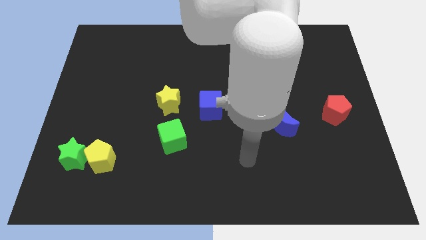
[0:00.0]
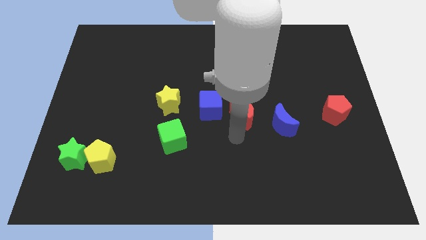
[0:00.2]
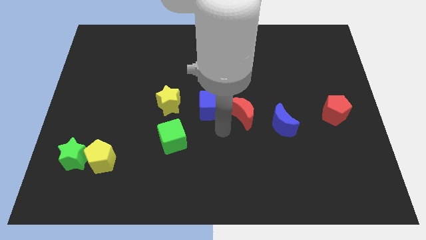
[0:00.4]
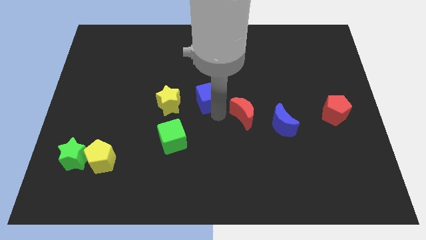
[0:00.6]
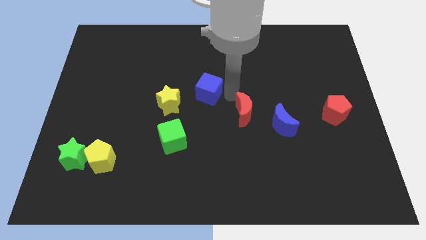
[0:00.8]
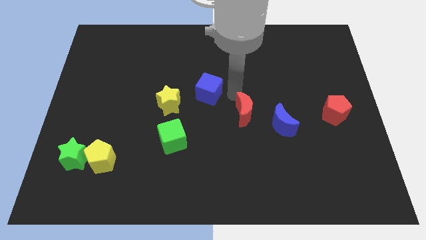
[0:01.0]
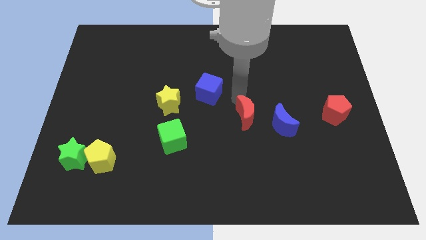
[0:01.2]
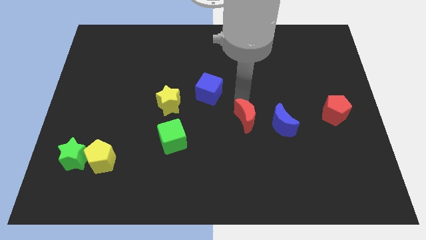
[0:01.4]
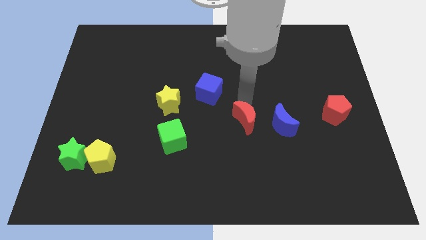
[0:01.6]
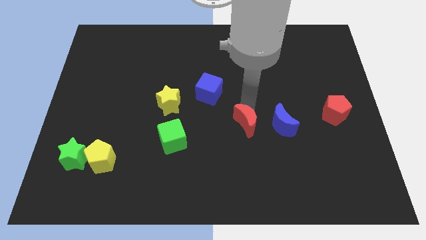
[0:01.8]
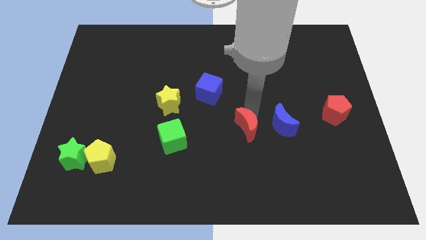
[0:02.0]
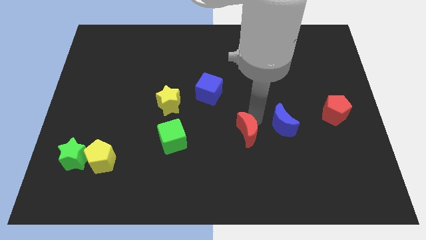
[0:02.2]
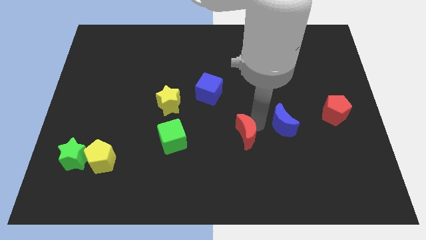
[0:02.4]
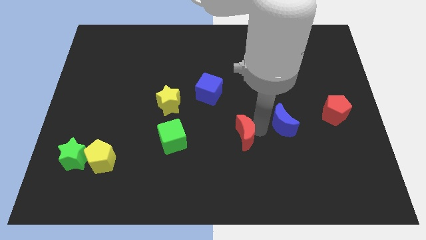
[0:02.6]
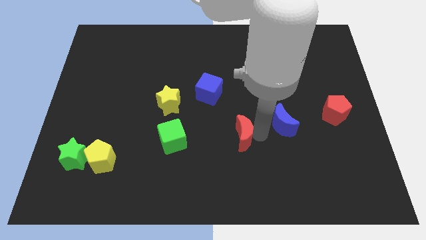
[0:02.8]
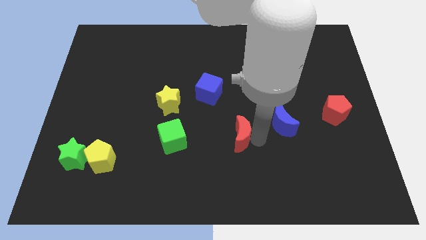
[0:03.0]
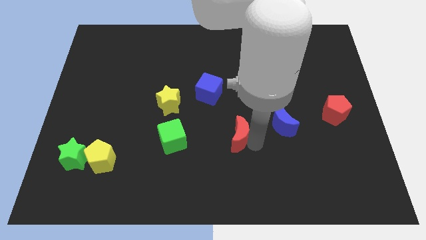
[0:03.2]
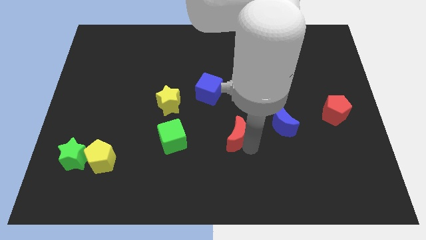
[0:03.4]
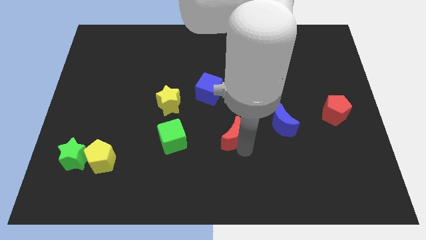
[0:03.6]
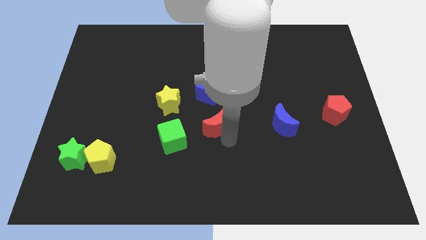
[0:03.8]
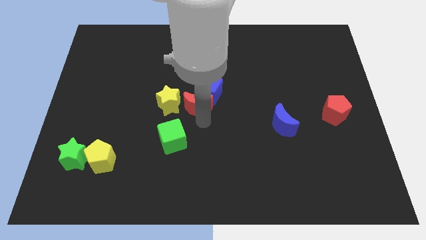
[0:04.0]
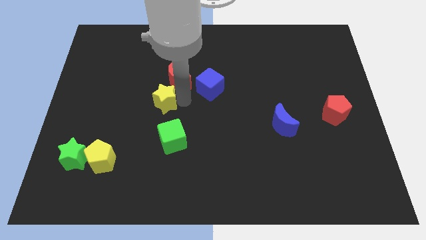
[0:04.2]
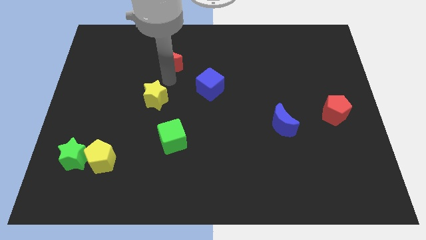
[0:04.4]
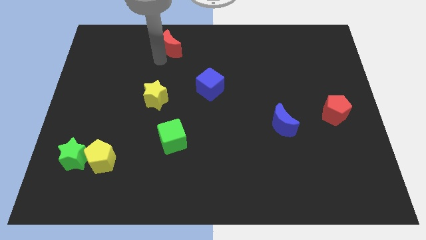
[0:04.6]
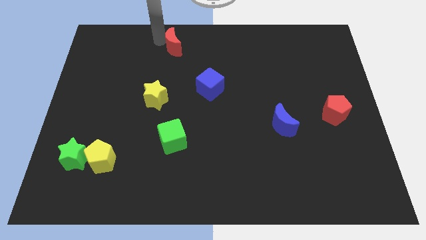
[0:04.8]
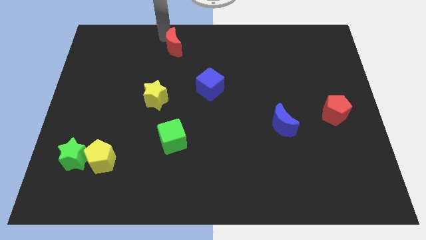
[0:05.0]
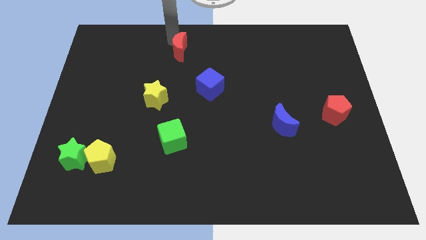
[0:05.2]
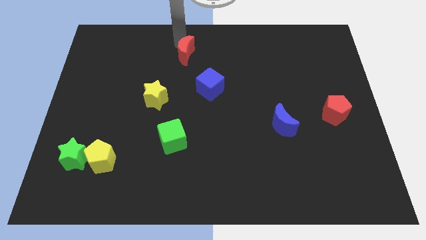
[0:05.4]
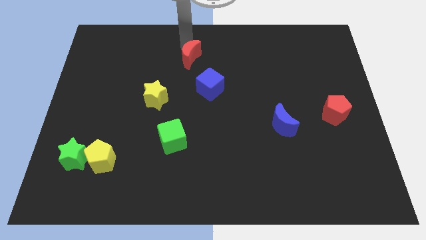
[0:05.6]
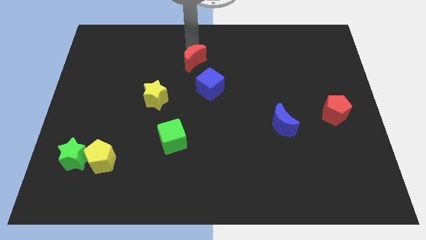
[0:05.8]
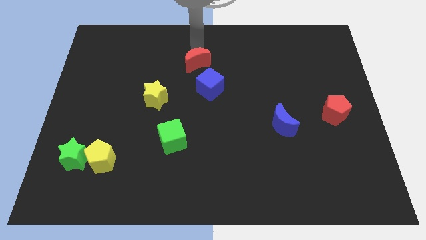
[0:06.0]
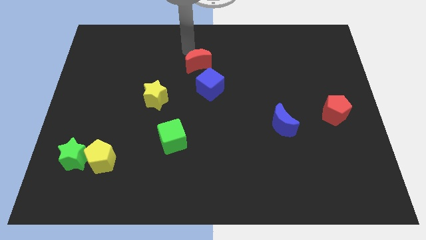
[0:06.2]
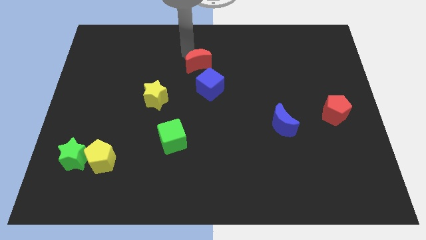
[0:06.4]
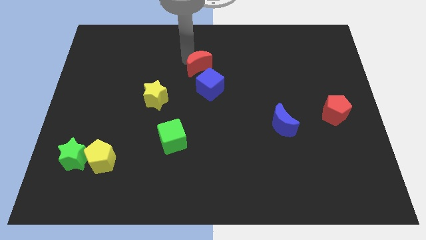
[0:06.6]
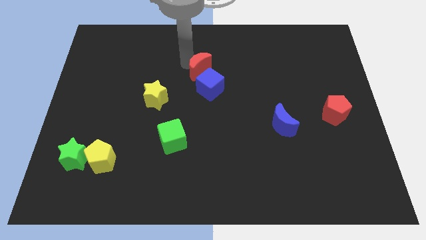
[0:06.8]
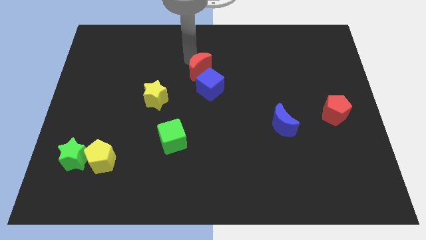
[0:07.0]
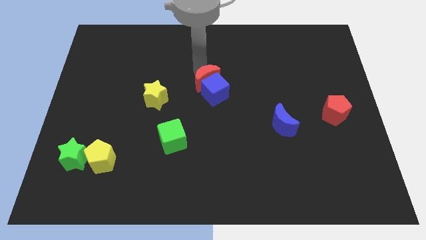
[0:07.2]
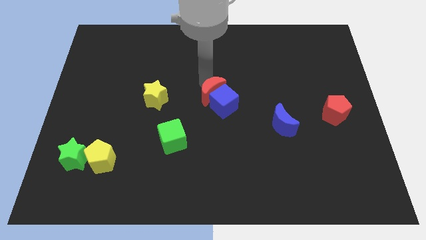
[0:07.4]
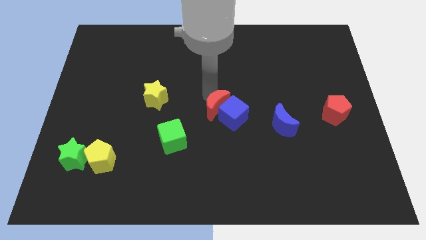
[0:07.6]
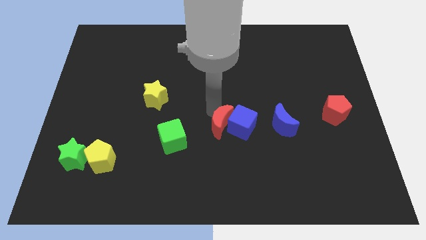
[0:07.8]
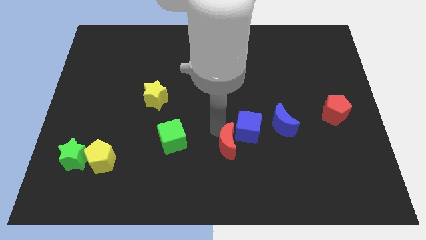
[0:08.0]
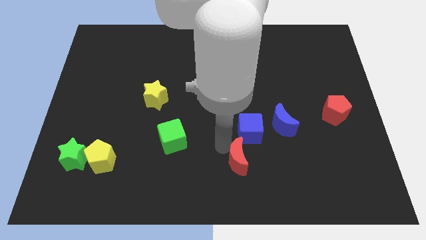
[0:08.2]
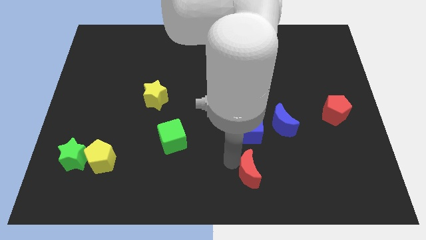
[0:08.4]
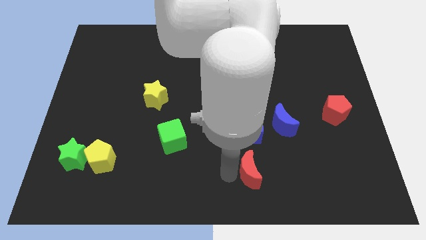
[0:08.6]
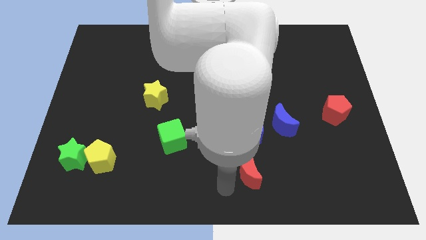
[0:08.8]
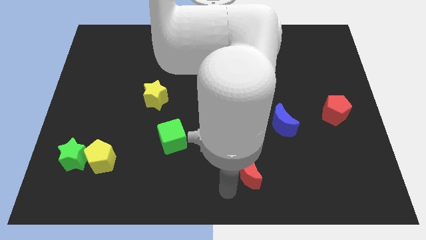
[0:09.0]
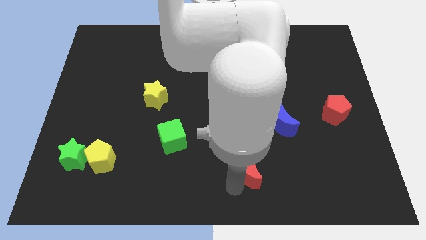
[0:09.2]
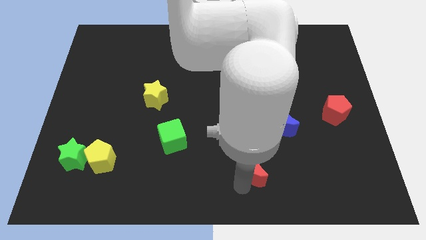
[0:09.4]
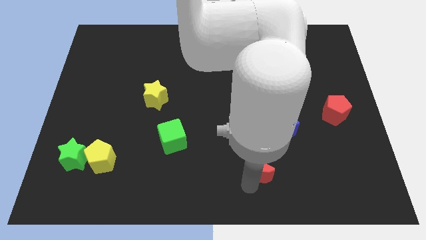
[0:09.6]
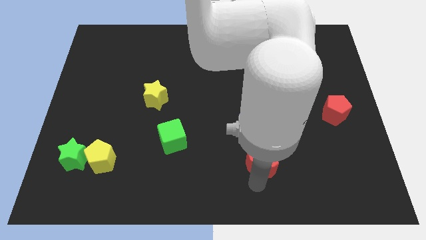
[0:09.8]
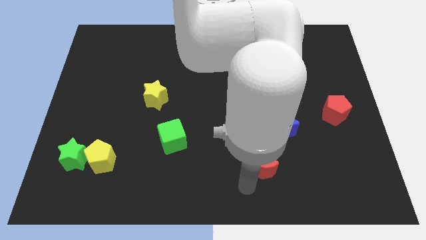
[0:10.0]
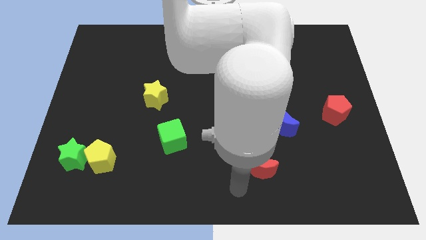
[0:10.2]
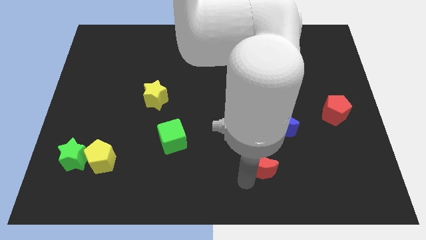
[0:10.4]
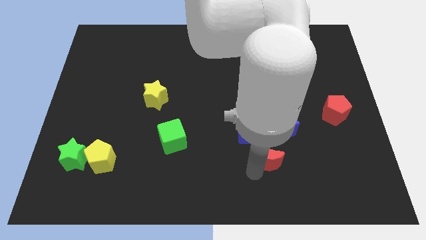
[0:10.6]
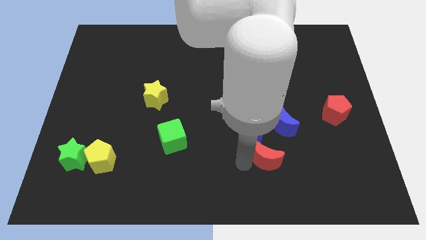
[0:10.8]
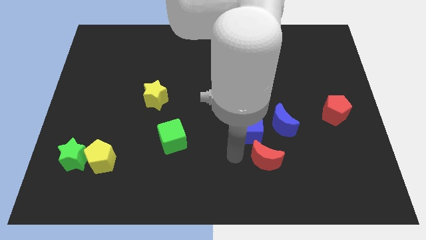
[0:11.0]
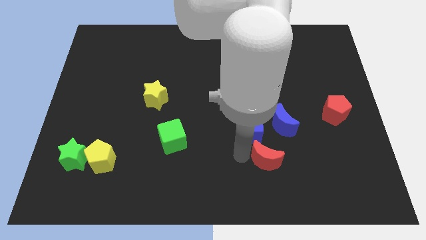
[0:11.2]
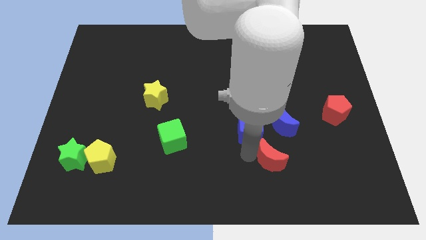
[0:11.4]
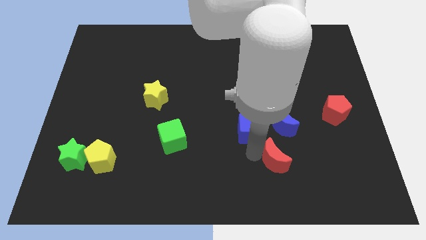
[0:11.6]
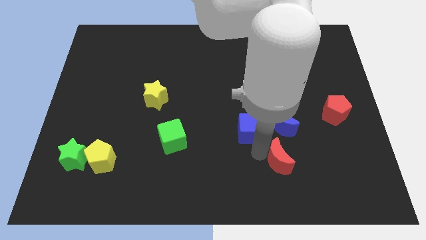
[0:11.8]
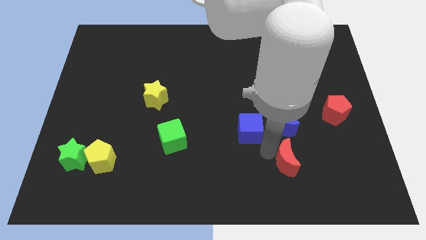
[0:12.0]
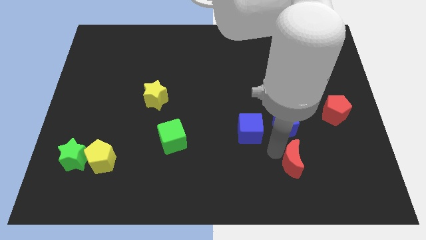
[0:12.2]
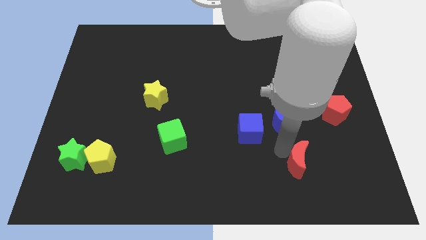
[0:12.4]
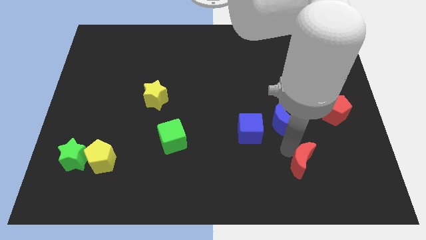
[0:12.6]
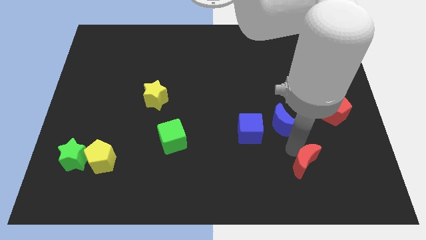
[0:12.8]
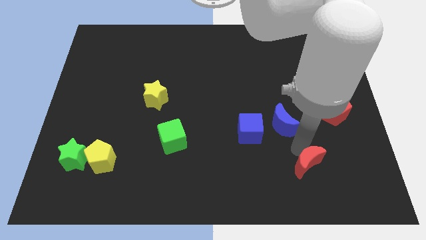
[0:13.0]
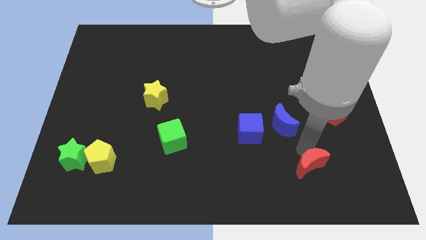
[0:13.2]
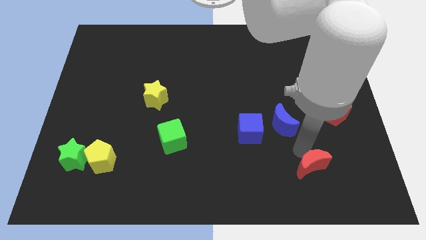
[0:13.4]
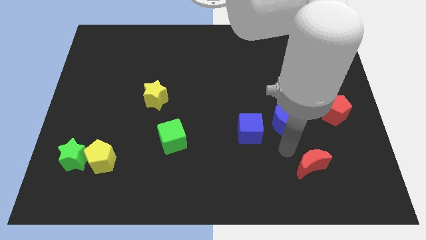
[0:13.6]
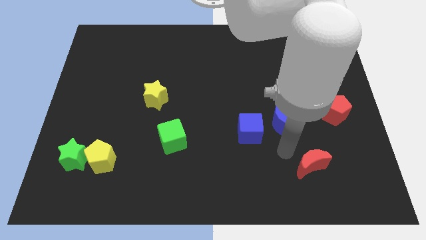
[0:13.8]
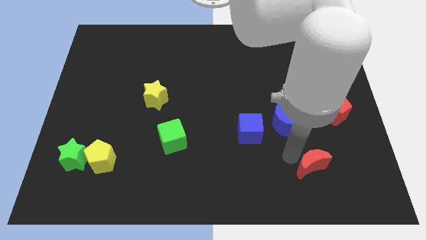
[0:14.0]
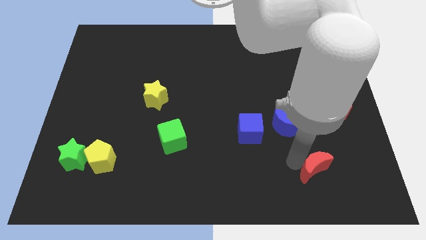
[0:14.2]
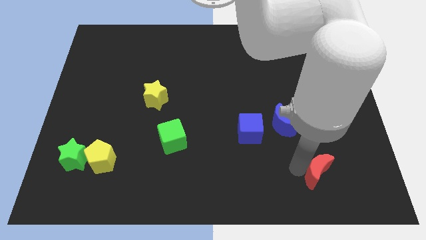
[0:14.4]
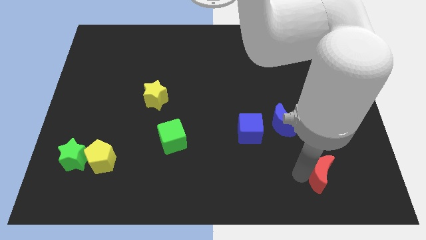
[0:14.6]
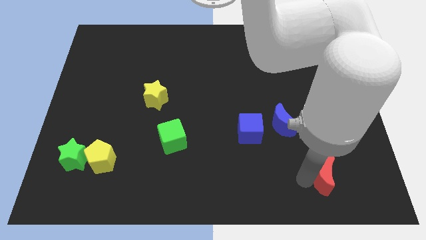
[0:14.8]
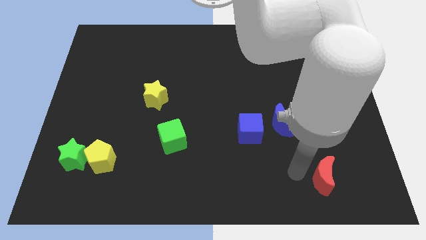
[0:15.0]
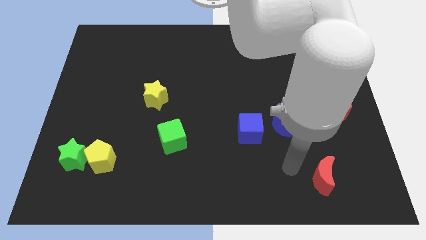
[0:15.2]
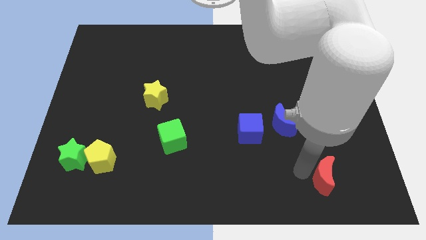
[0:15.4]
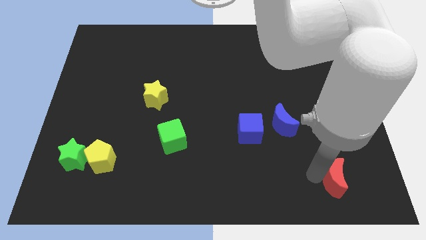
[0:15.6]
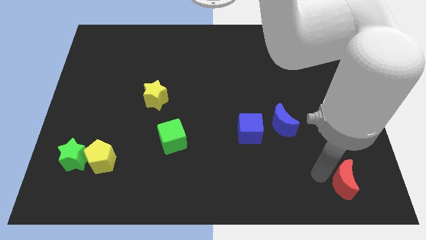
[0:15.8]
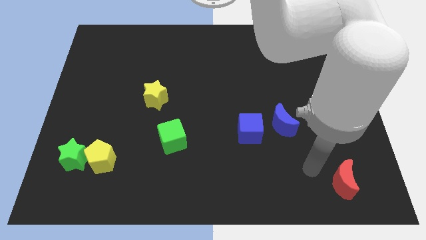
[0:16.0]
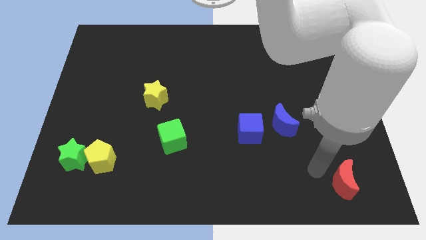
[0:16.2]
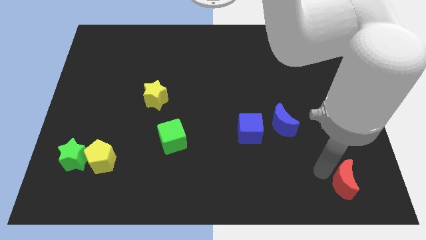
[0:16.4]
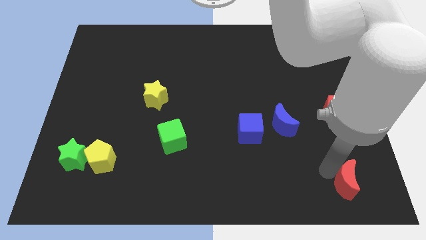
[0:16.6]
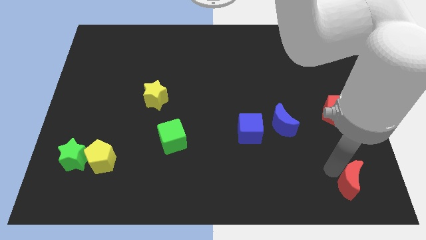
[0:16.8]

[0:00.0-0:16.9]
push the red moon to the bottom right of the board
